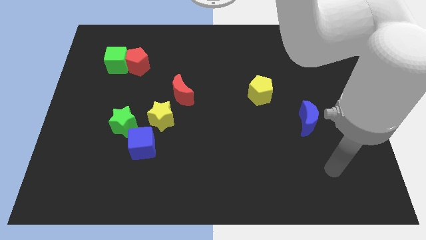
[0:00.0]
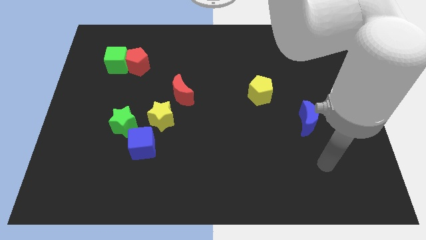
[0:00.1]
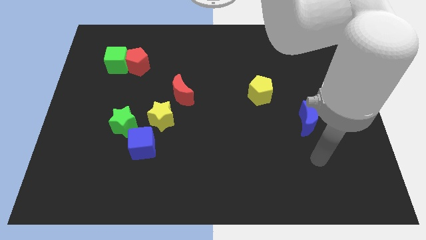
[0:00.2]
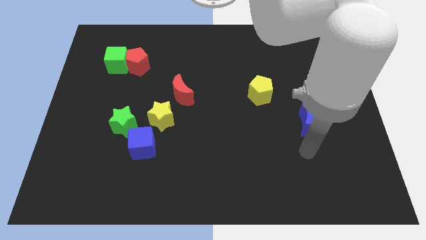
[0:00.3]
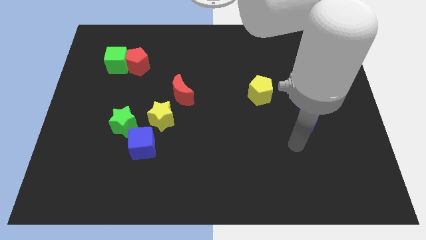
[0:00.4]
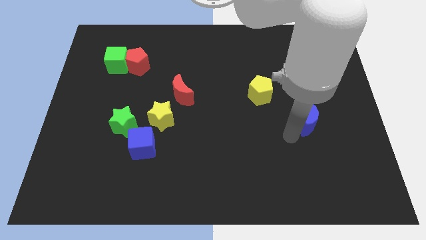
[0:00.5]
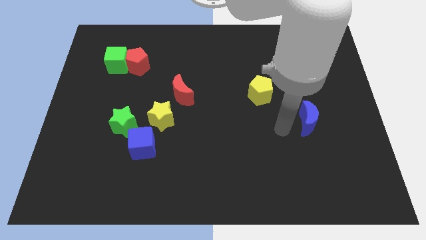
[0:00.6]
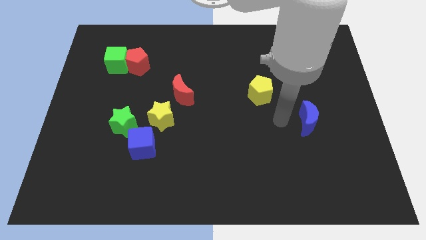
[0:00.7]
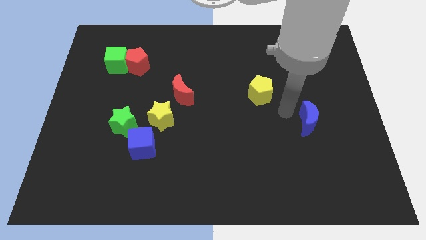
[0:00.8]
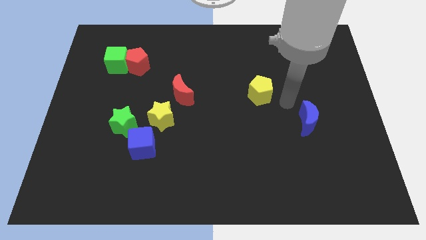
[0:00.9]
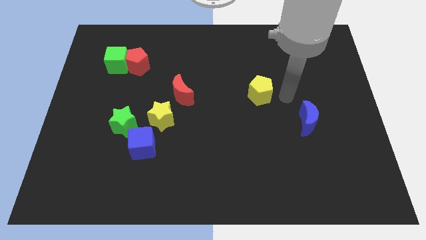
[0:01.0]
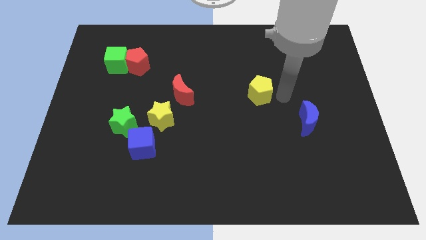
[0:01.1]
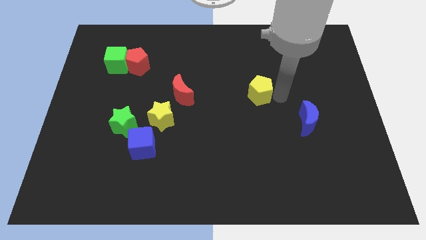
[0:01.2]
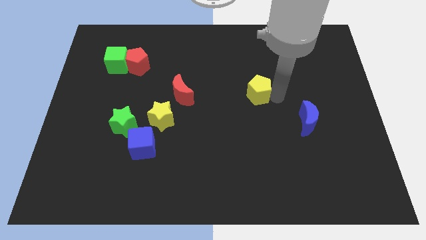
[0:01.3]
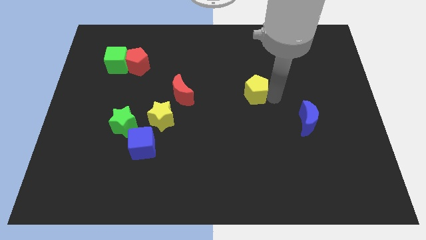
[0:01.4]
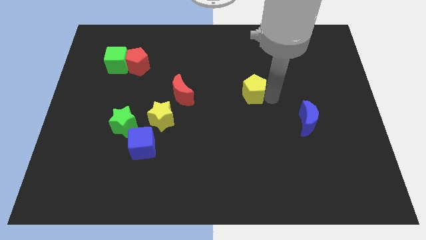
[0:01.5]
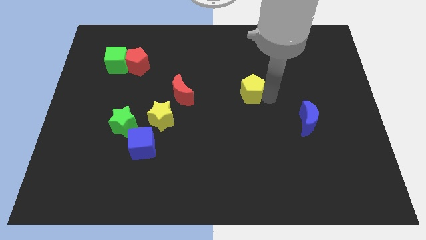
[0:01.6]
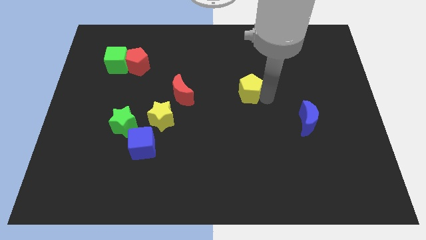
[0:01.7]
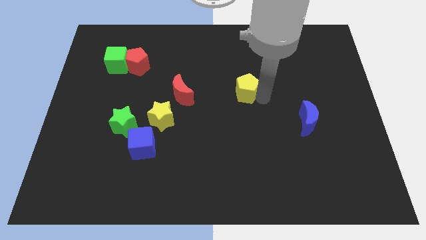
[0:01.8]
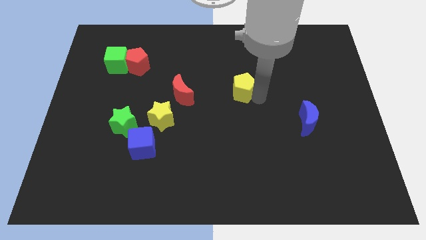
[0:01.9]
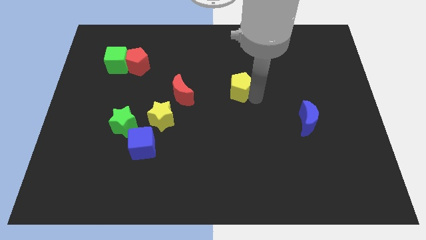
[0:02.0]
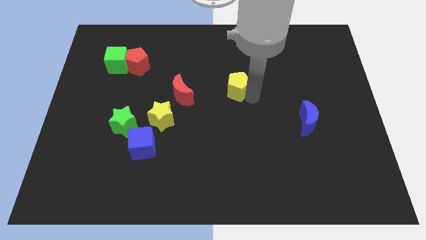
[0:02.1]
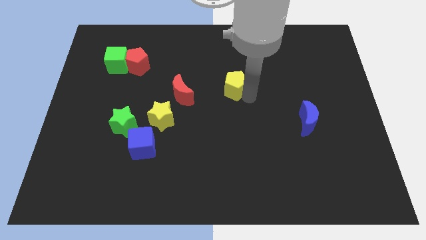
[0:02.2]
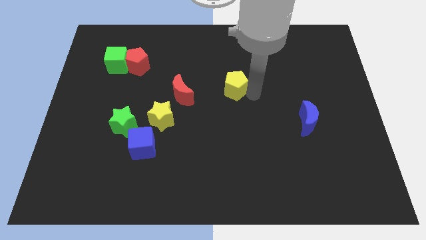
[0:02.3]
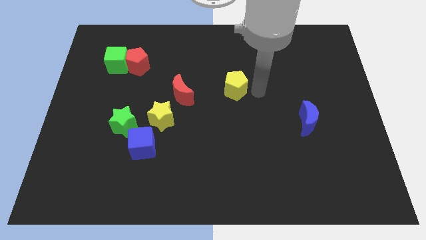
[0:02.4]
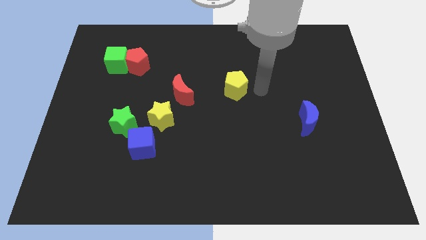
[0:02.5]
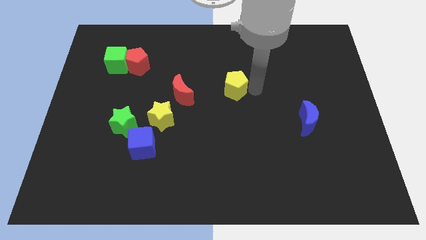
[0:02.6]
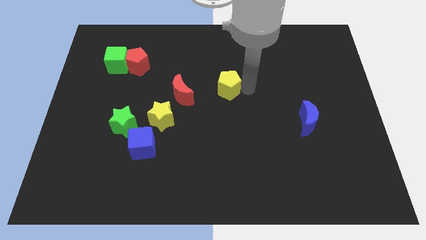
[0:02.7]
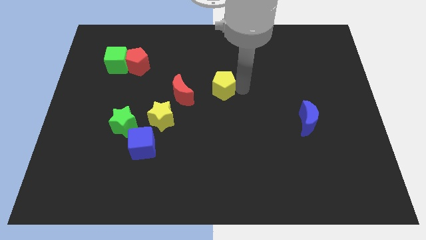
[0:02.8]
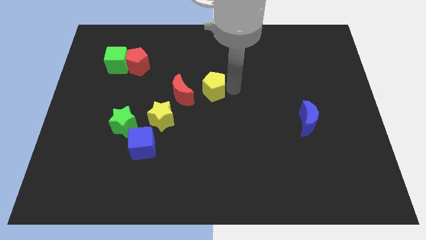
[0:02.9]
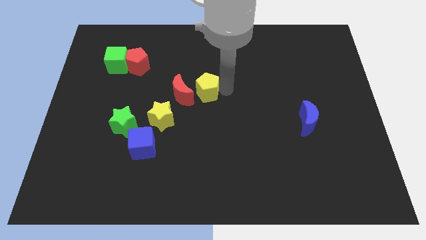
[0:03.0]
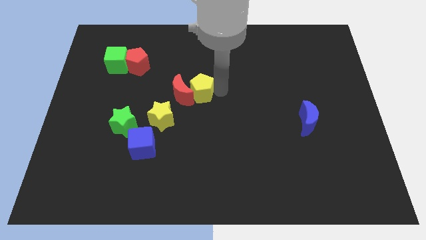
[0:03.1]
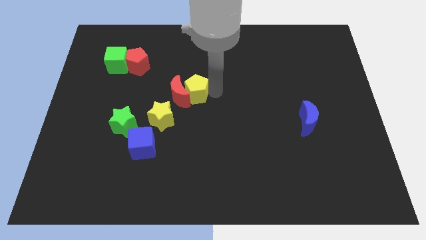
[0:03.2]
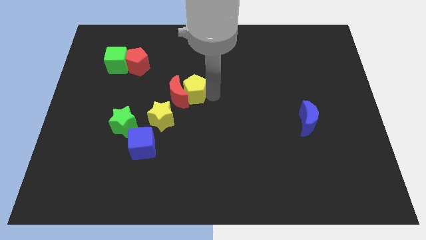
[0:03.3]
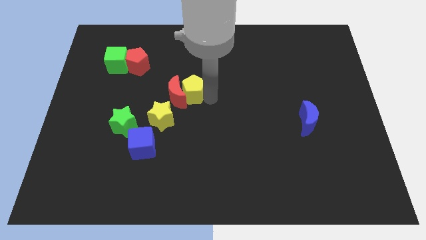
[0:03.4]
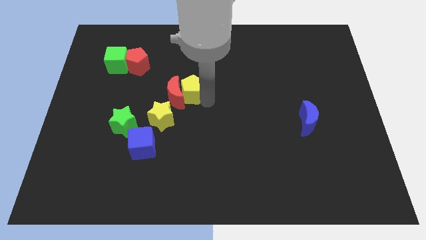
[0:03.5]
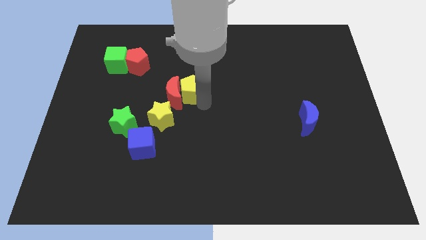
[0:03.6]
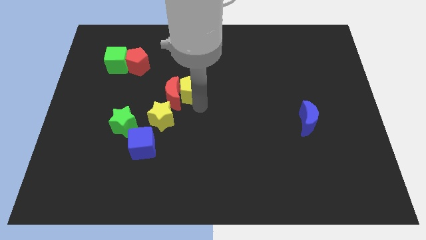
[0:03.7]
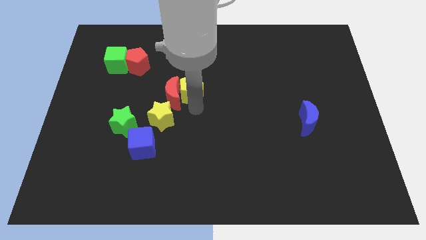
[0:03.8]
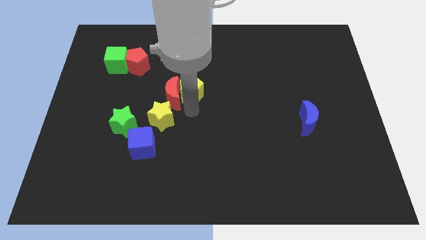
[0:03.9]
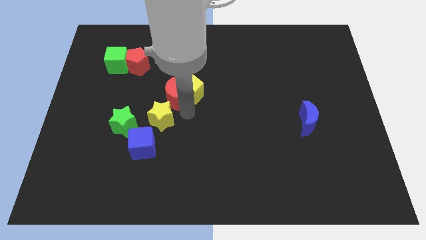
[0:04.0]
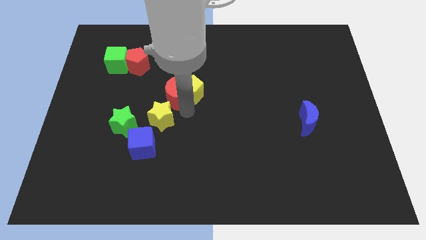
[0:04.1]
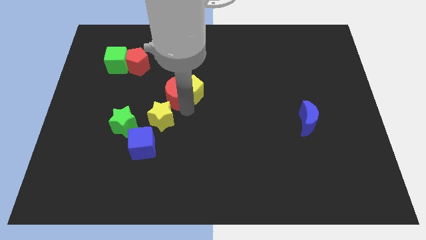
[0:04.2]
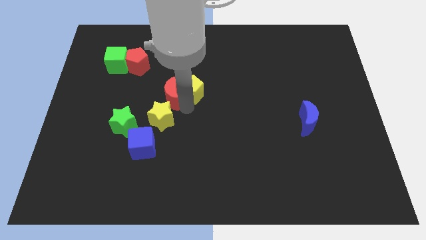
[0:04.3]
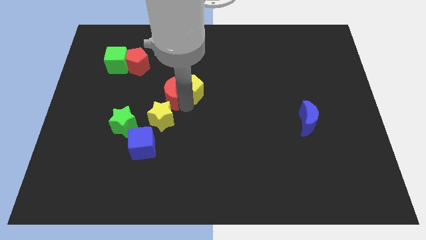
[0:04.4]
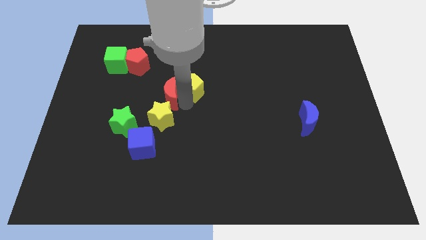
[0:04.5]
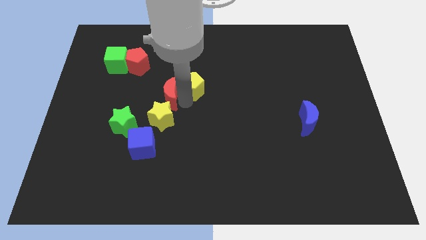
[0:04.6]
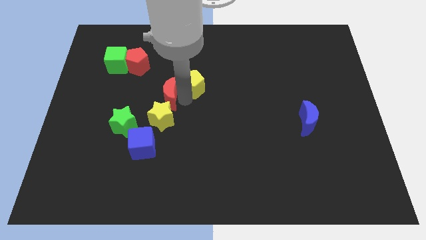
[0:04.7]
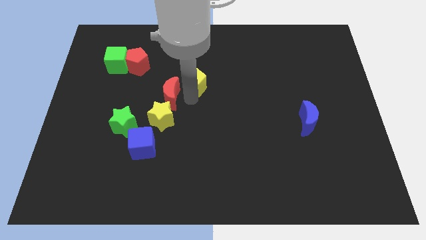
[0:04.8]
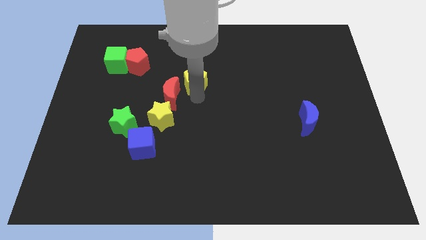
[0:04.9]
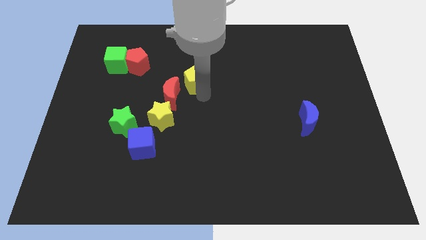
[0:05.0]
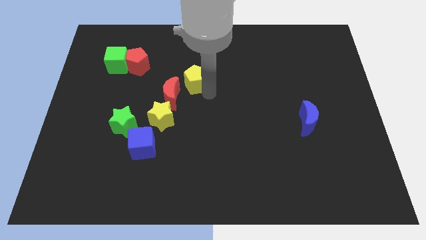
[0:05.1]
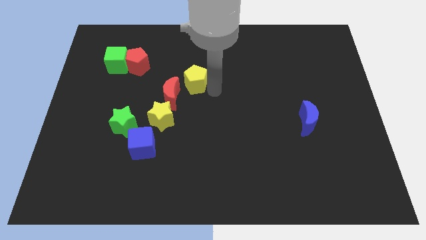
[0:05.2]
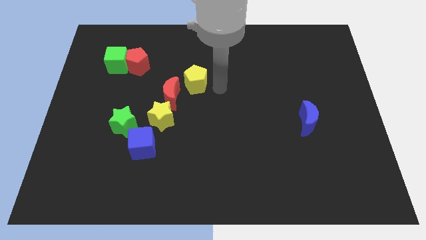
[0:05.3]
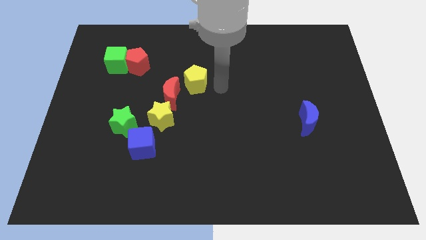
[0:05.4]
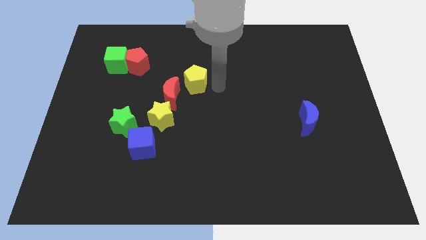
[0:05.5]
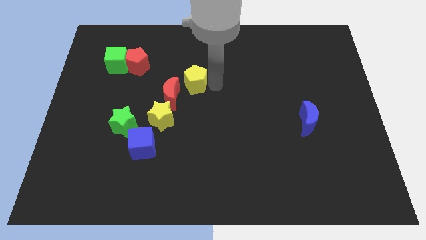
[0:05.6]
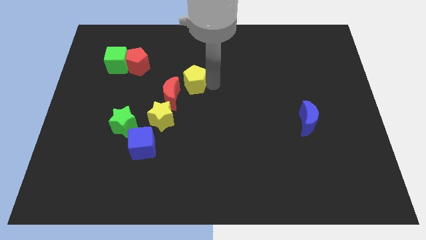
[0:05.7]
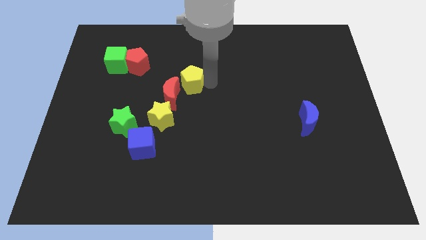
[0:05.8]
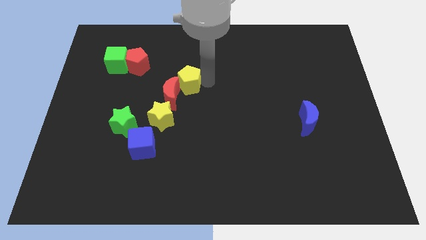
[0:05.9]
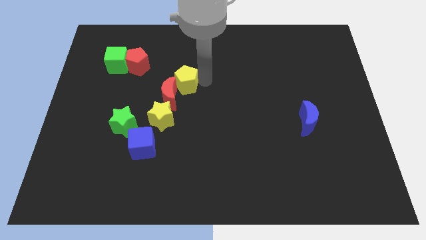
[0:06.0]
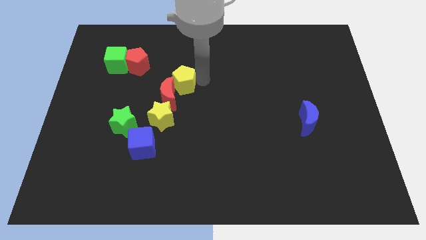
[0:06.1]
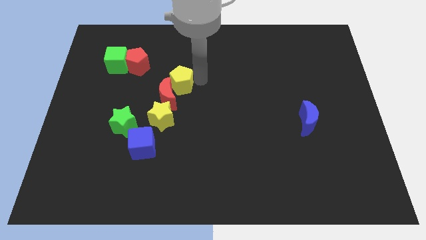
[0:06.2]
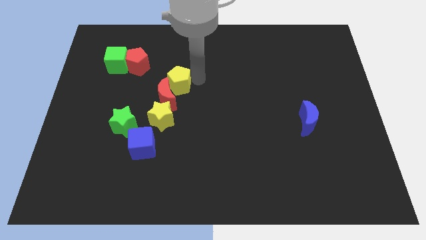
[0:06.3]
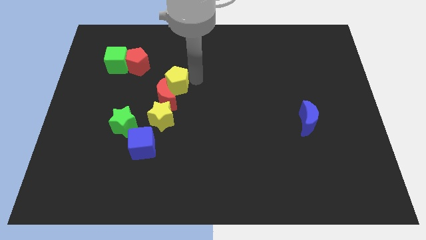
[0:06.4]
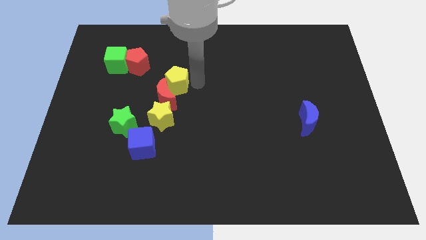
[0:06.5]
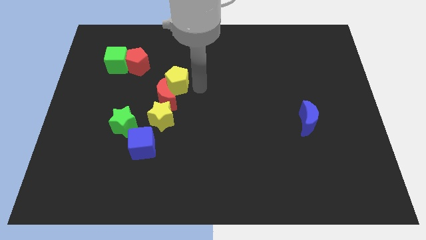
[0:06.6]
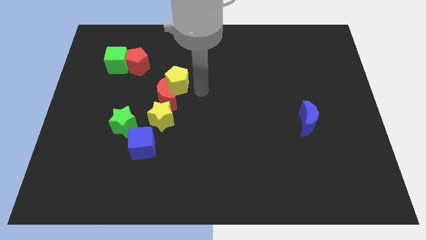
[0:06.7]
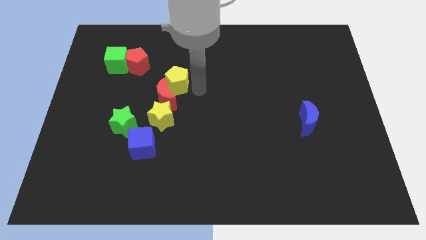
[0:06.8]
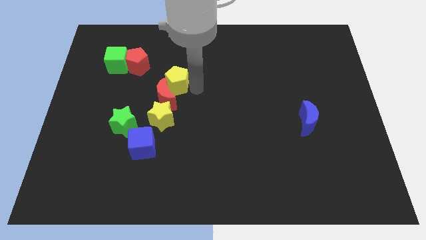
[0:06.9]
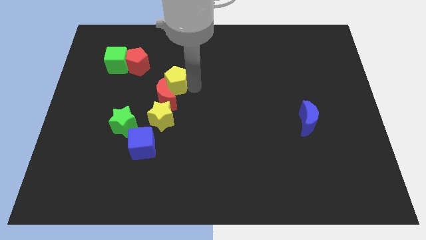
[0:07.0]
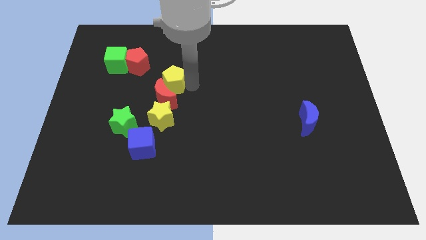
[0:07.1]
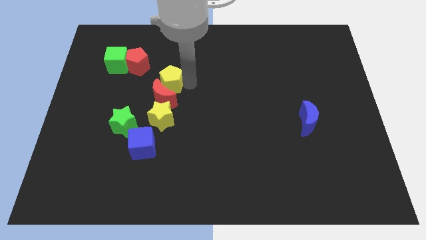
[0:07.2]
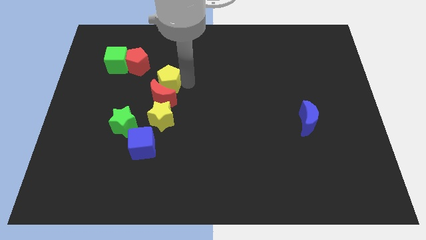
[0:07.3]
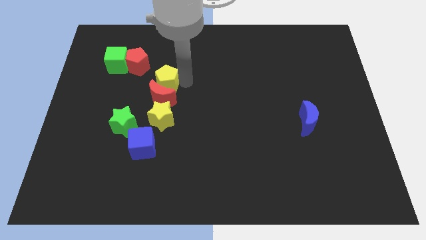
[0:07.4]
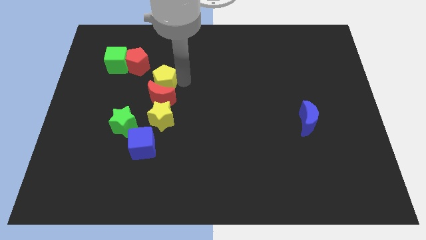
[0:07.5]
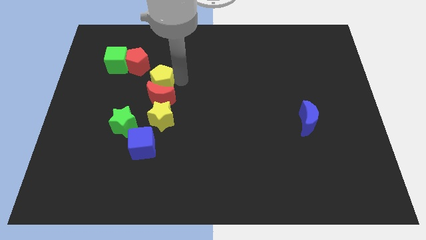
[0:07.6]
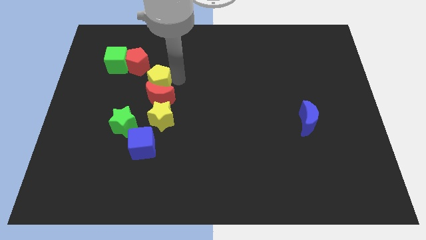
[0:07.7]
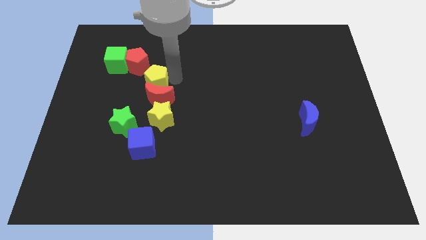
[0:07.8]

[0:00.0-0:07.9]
move the yellow pentagon to the bottom right side of the green cube
